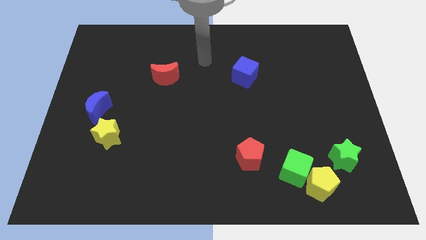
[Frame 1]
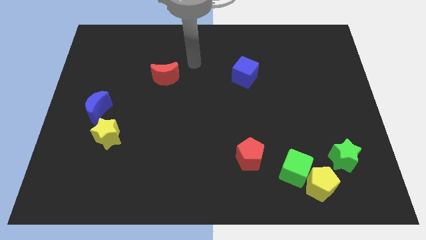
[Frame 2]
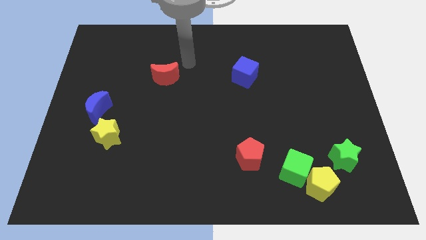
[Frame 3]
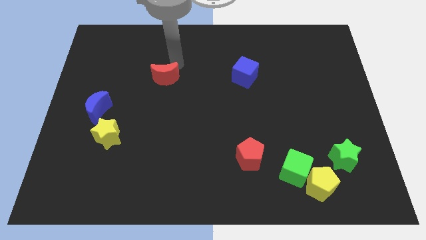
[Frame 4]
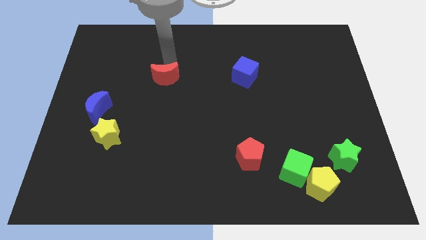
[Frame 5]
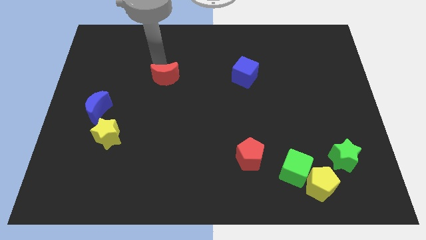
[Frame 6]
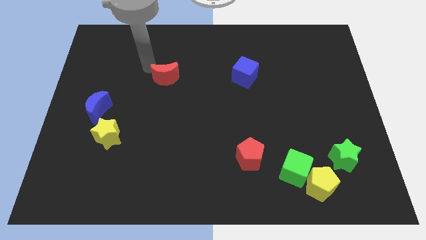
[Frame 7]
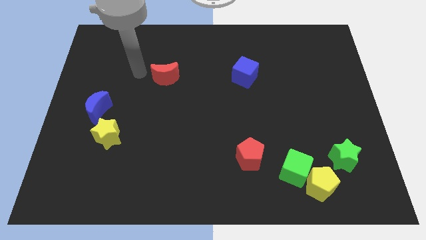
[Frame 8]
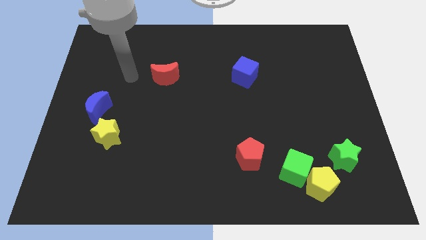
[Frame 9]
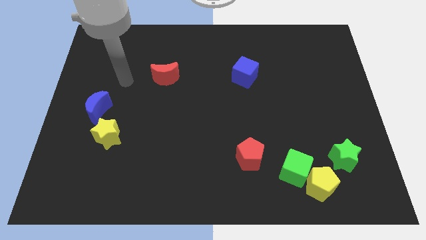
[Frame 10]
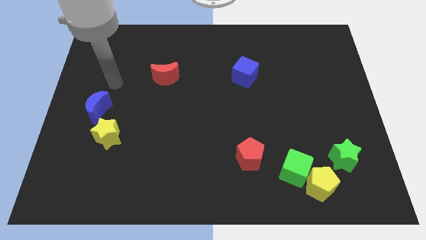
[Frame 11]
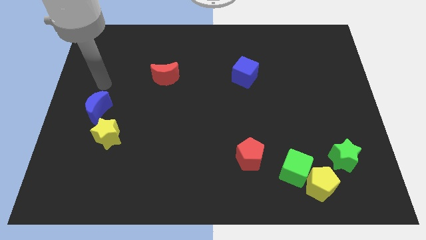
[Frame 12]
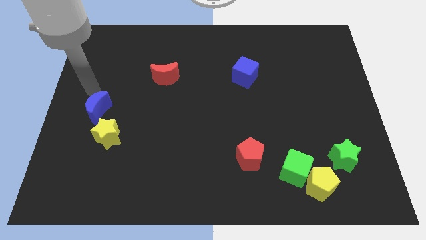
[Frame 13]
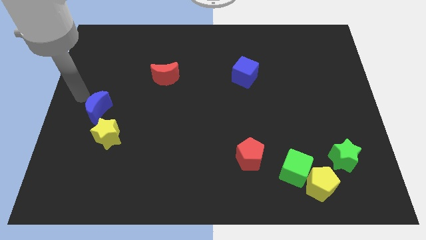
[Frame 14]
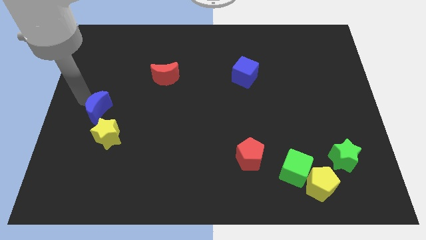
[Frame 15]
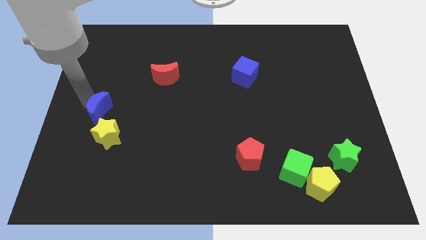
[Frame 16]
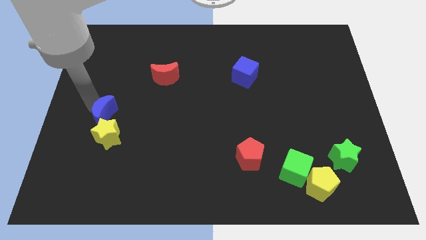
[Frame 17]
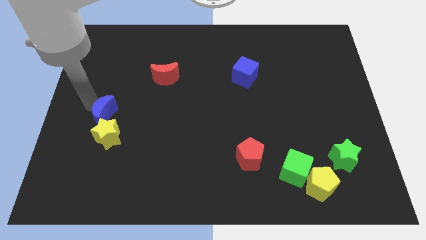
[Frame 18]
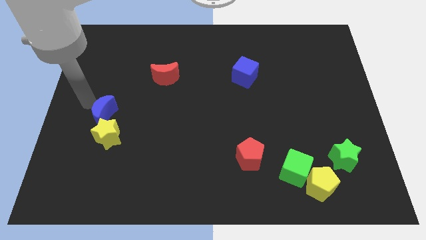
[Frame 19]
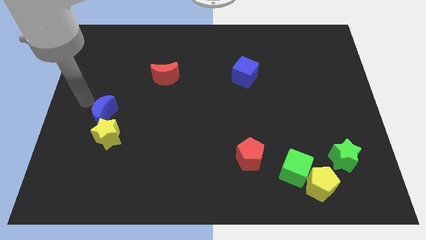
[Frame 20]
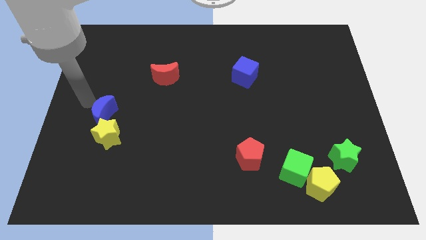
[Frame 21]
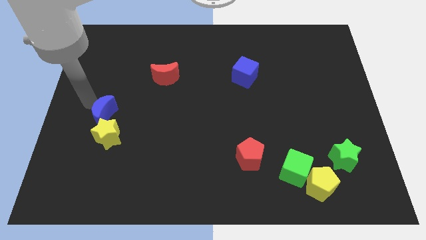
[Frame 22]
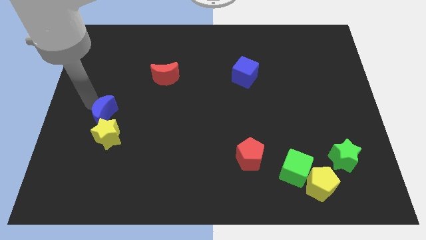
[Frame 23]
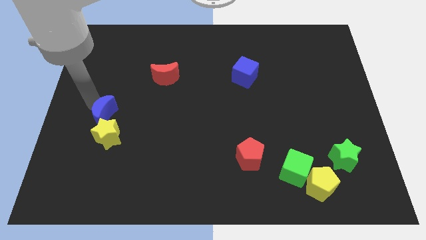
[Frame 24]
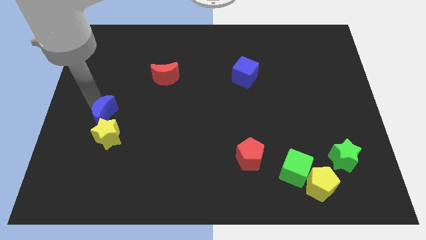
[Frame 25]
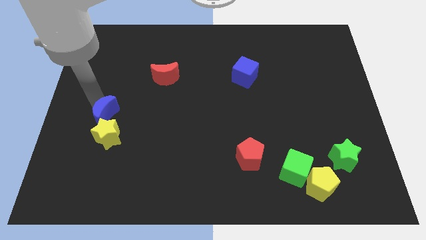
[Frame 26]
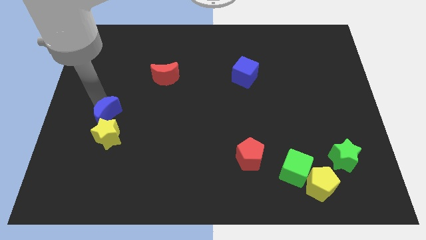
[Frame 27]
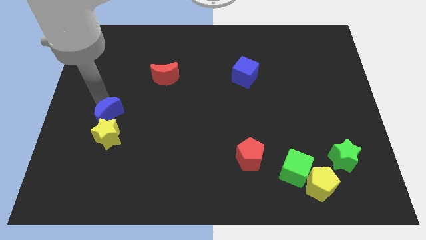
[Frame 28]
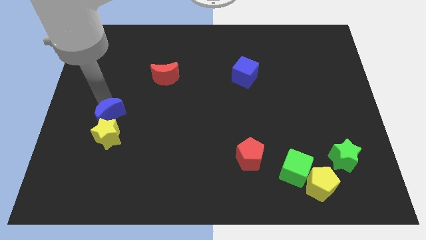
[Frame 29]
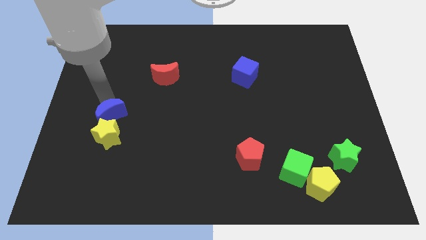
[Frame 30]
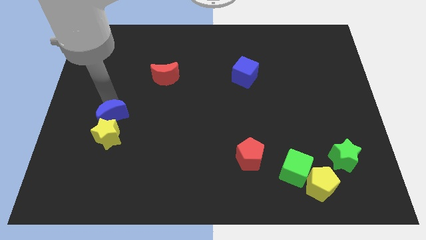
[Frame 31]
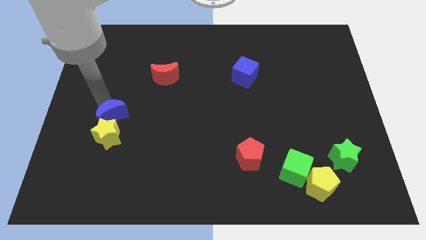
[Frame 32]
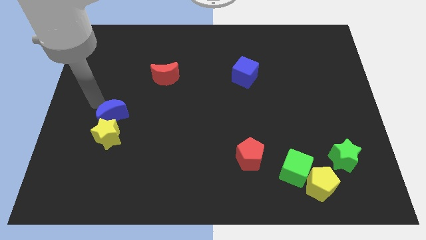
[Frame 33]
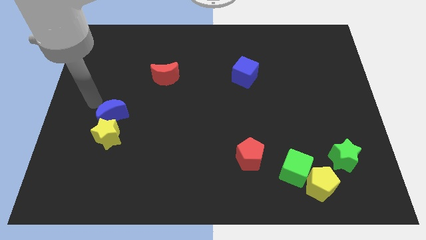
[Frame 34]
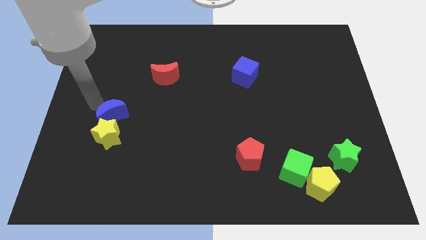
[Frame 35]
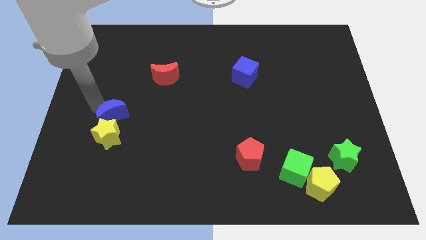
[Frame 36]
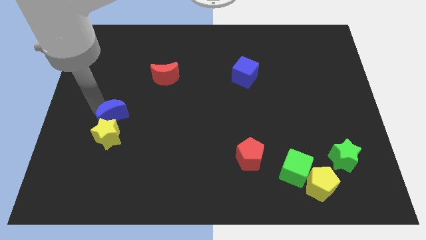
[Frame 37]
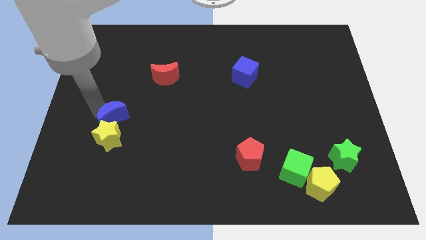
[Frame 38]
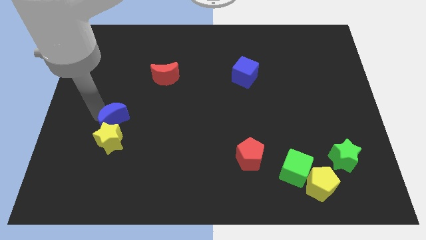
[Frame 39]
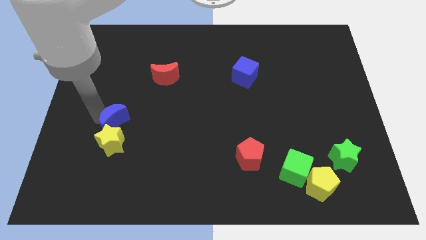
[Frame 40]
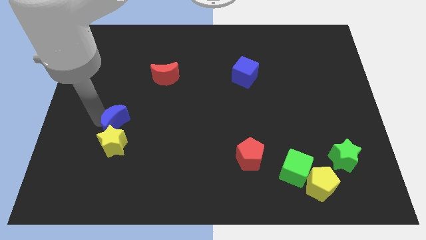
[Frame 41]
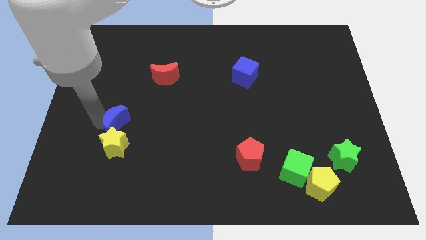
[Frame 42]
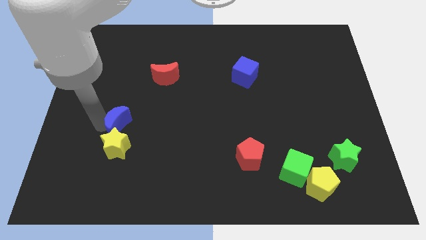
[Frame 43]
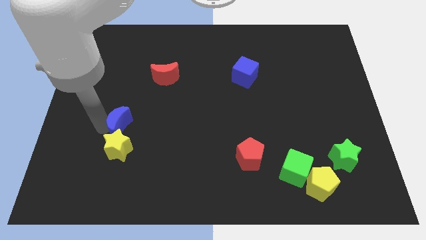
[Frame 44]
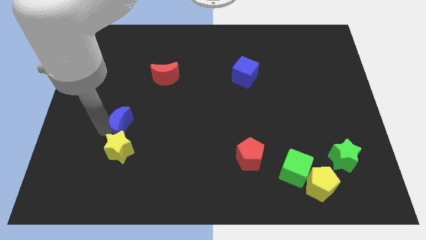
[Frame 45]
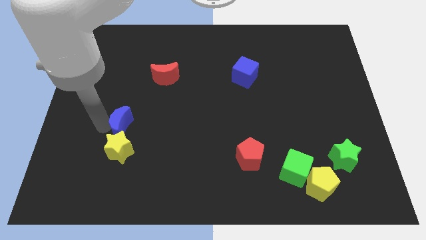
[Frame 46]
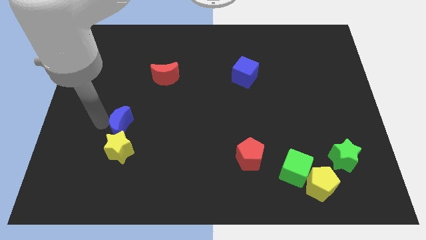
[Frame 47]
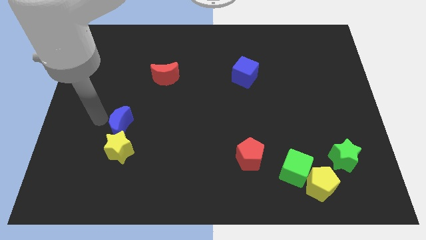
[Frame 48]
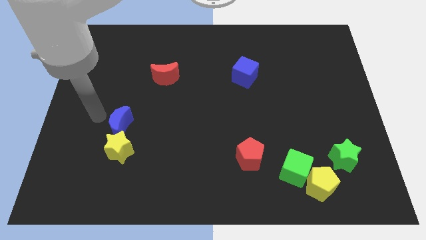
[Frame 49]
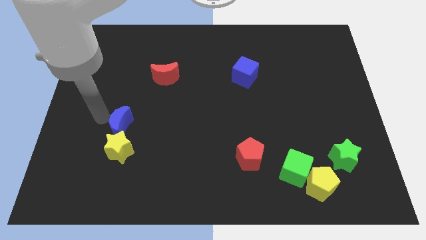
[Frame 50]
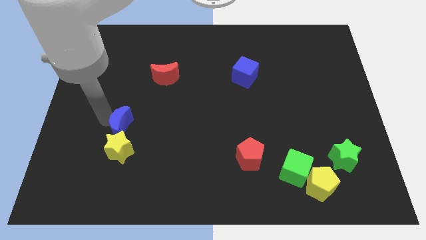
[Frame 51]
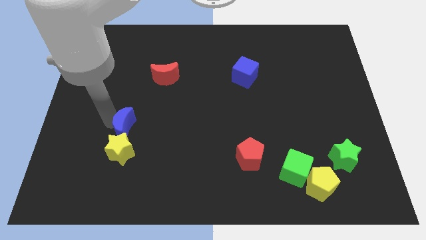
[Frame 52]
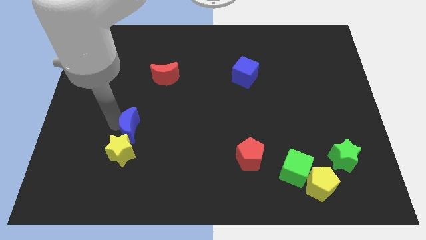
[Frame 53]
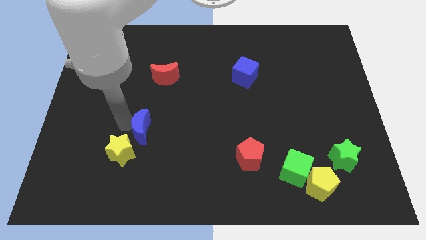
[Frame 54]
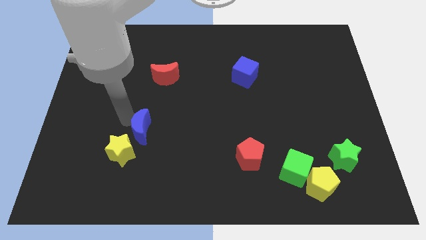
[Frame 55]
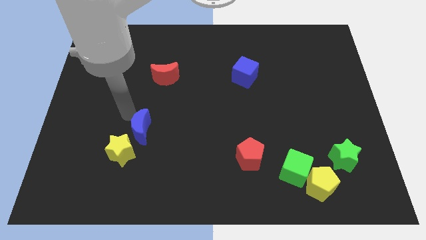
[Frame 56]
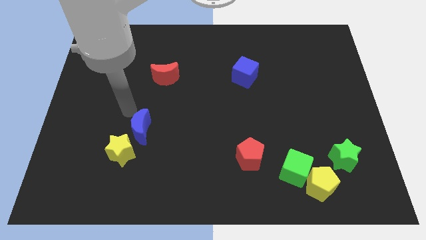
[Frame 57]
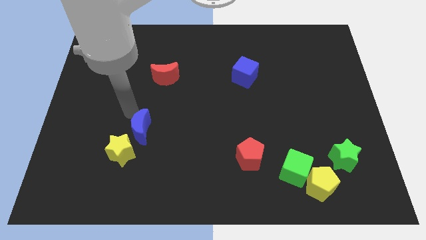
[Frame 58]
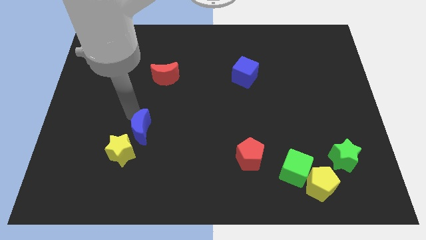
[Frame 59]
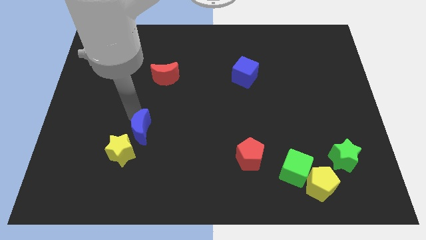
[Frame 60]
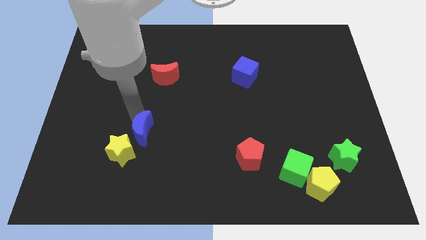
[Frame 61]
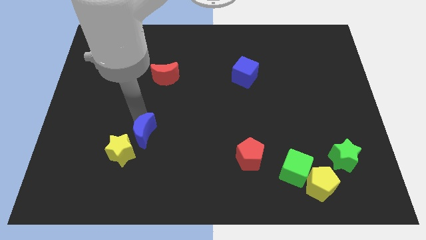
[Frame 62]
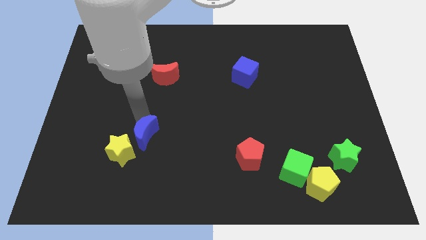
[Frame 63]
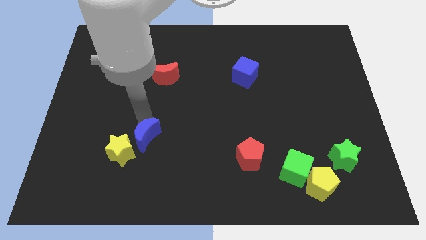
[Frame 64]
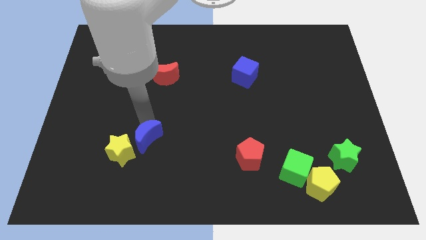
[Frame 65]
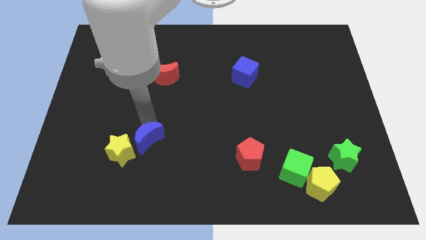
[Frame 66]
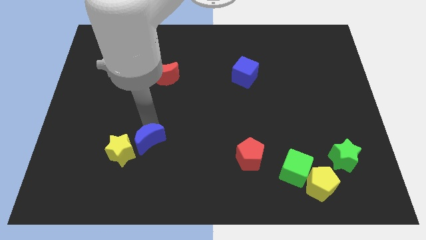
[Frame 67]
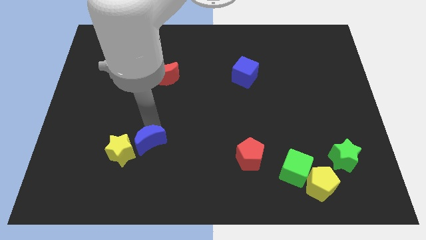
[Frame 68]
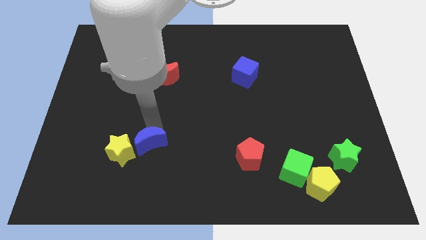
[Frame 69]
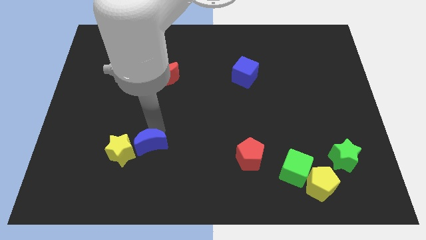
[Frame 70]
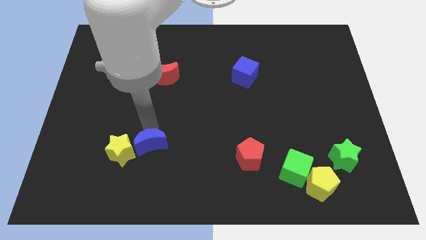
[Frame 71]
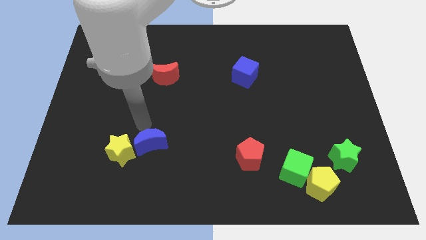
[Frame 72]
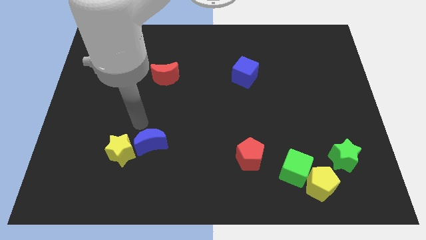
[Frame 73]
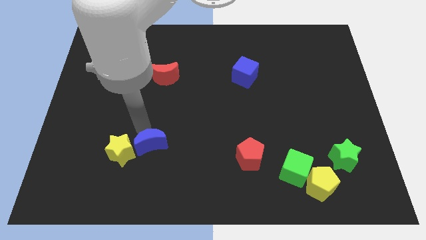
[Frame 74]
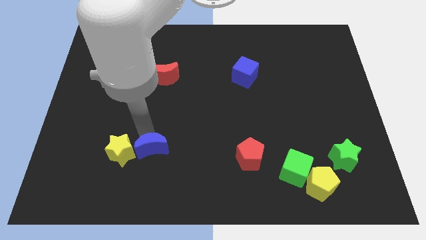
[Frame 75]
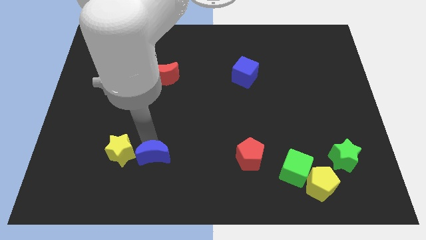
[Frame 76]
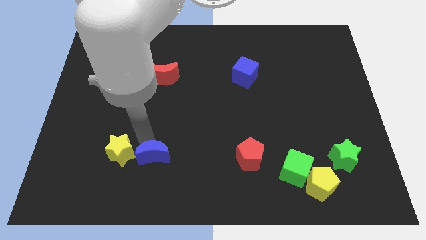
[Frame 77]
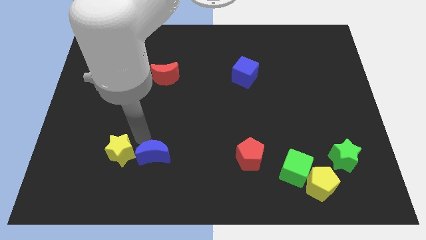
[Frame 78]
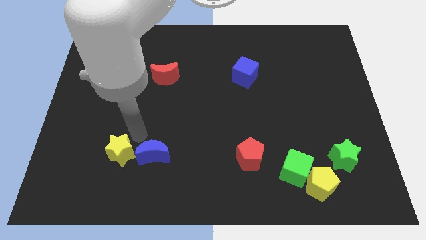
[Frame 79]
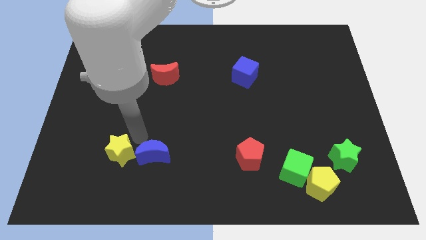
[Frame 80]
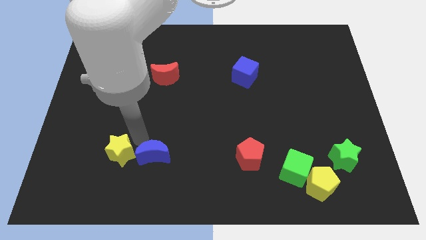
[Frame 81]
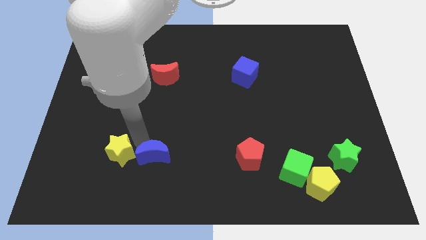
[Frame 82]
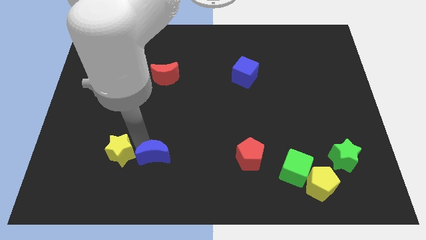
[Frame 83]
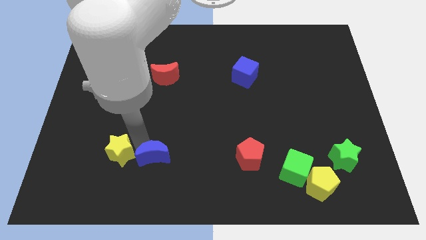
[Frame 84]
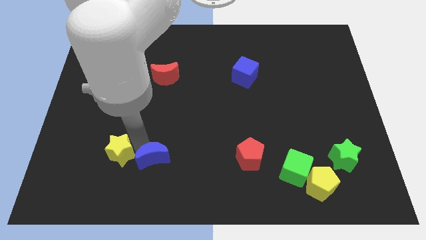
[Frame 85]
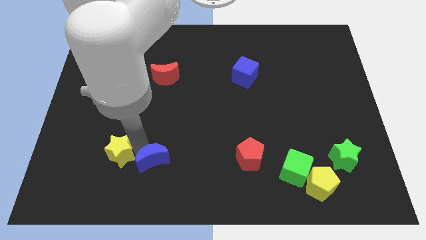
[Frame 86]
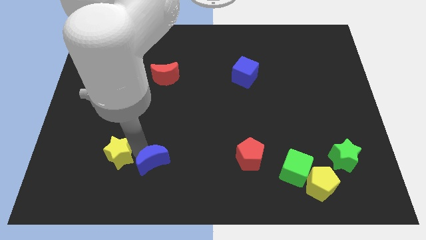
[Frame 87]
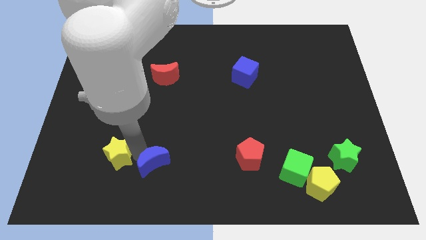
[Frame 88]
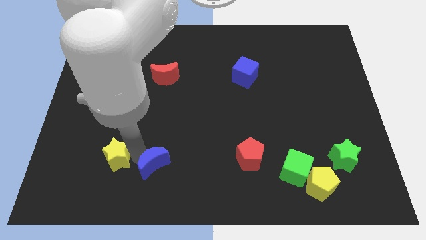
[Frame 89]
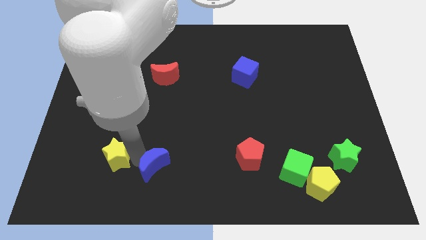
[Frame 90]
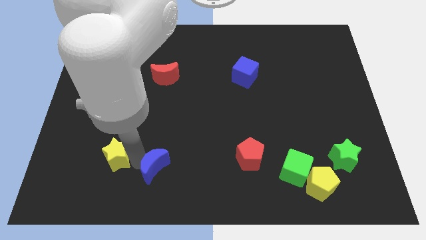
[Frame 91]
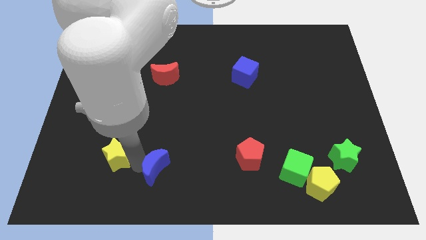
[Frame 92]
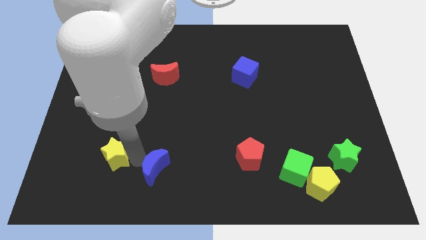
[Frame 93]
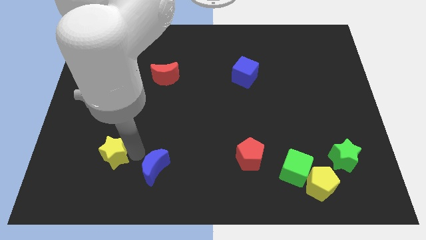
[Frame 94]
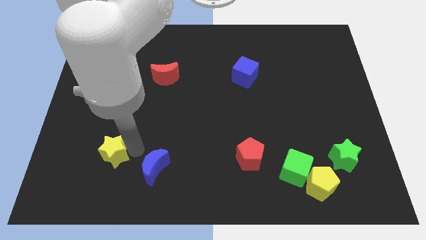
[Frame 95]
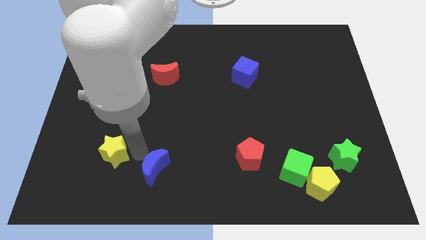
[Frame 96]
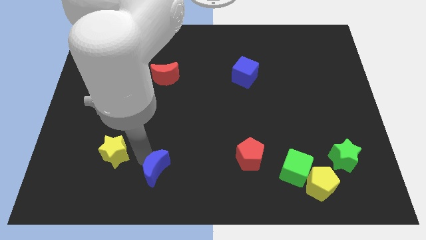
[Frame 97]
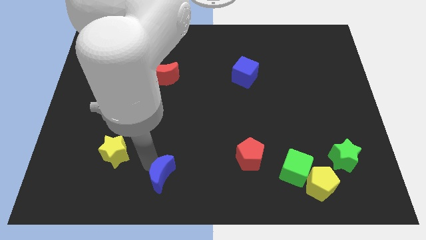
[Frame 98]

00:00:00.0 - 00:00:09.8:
put the blue moon to the bottom side
